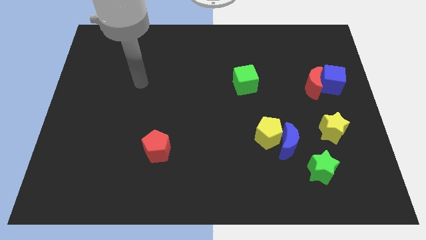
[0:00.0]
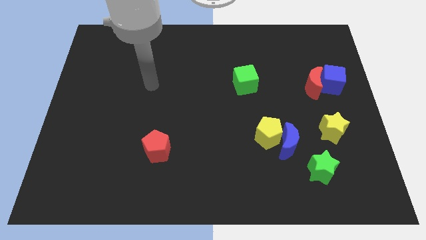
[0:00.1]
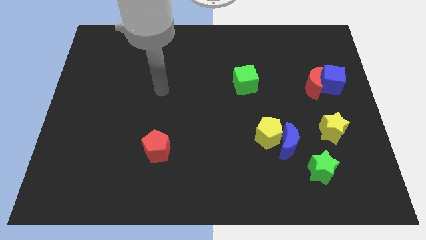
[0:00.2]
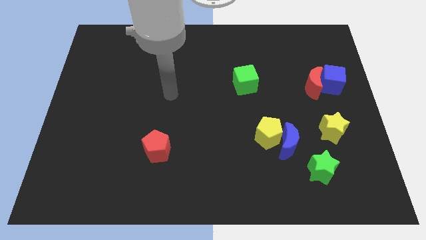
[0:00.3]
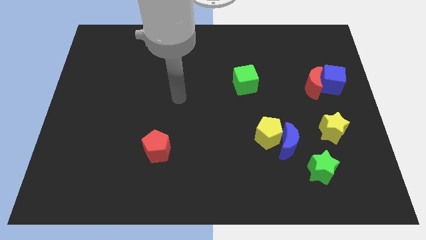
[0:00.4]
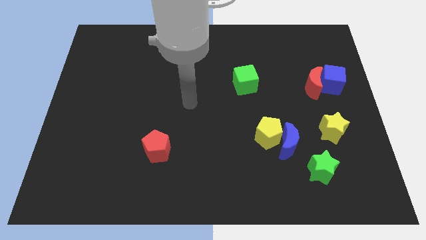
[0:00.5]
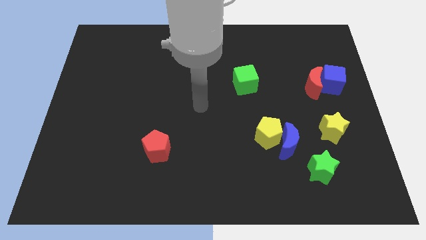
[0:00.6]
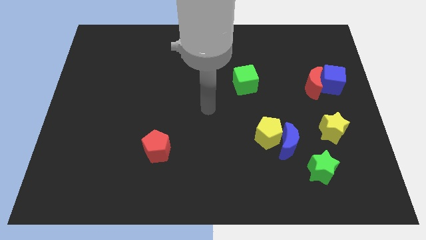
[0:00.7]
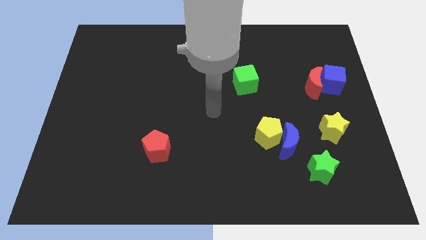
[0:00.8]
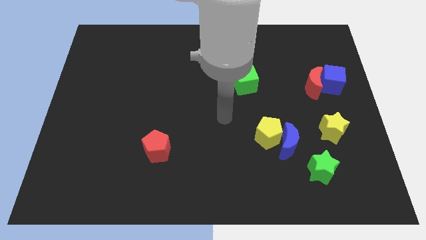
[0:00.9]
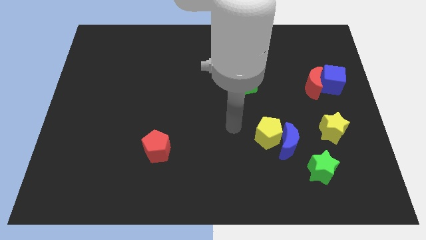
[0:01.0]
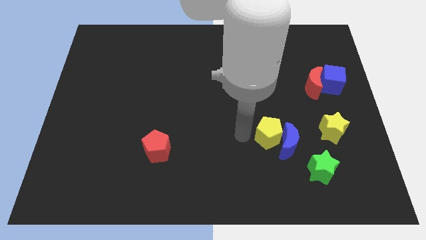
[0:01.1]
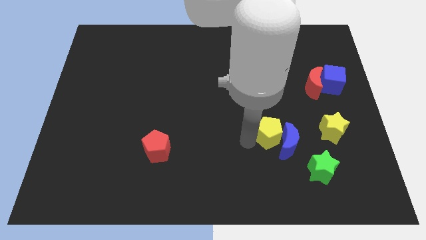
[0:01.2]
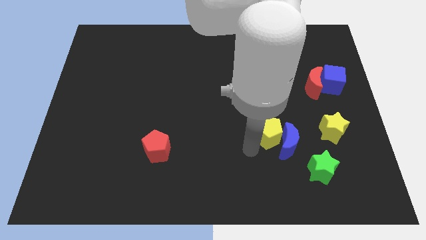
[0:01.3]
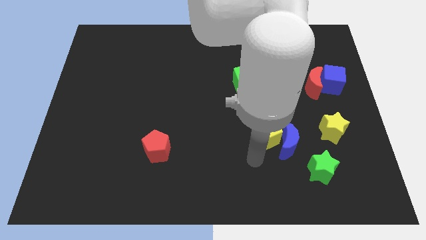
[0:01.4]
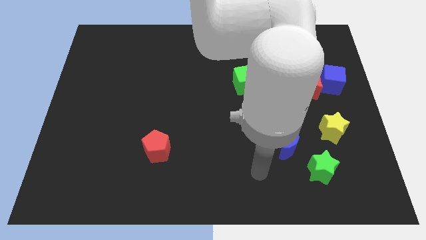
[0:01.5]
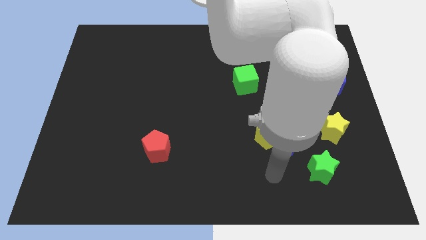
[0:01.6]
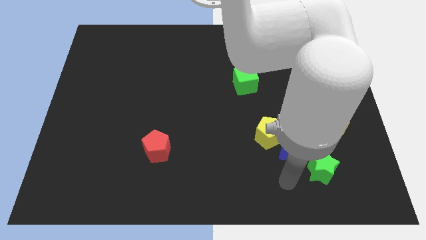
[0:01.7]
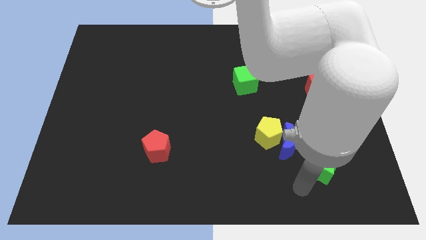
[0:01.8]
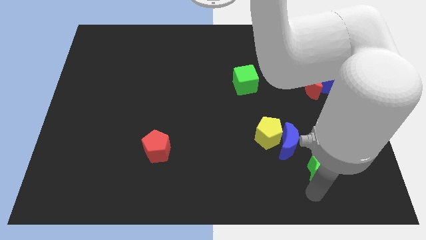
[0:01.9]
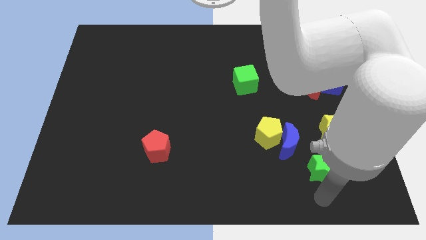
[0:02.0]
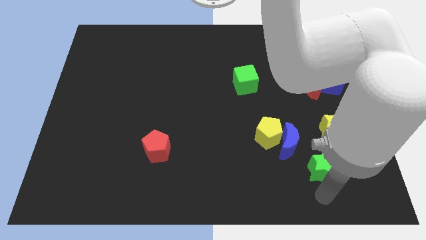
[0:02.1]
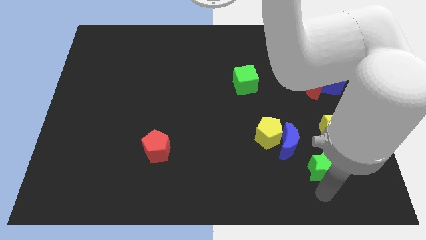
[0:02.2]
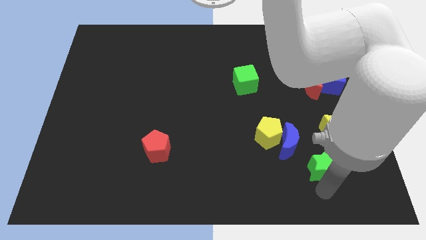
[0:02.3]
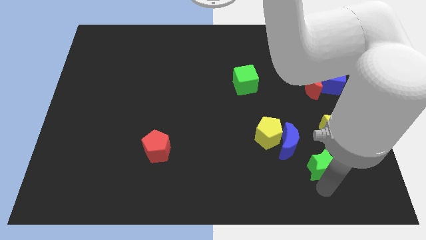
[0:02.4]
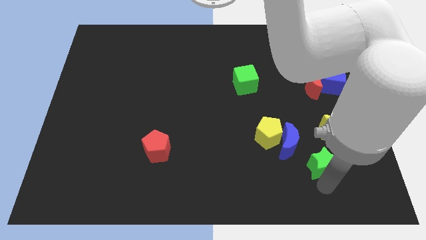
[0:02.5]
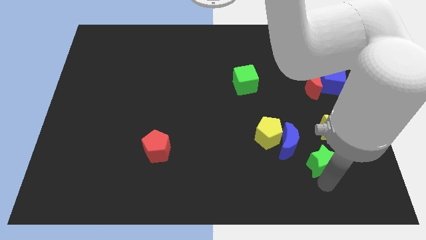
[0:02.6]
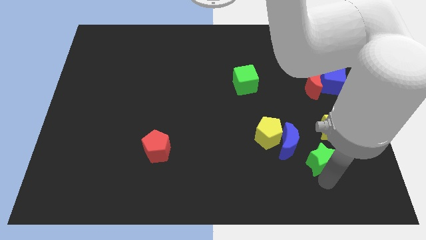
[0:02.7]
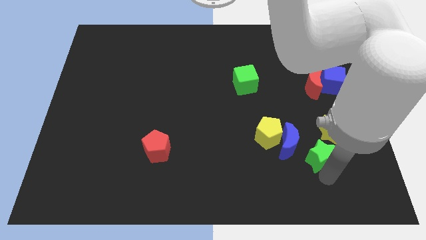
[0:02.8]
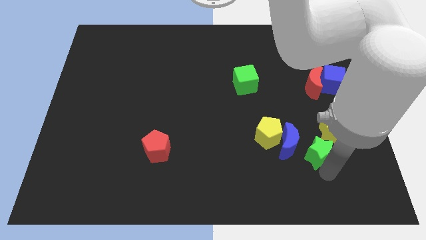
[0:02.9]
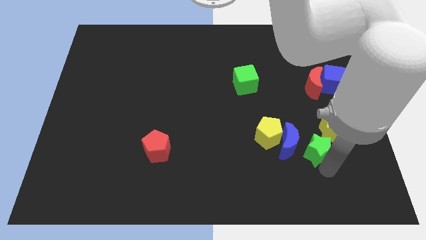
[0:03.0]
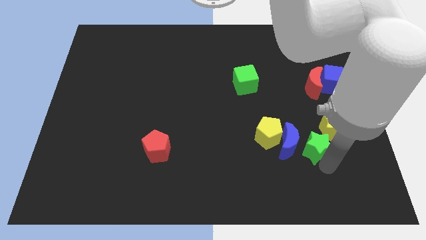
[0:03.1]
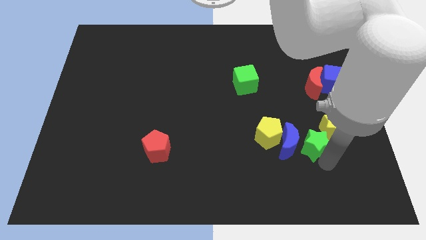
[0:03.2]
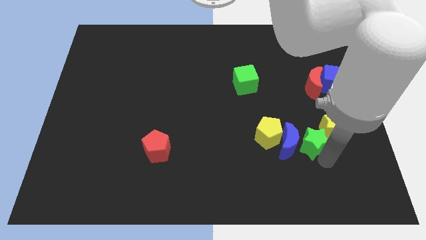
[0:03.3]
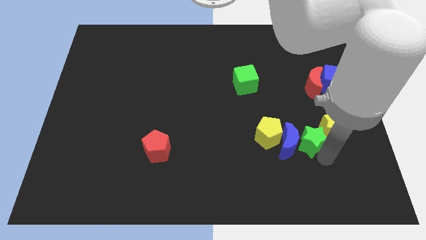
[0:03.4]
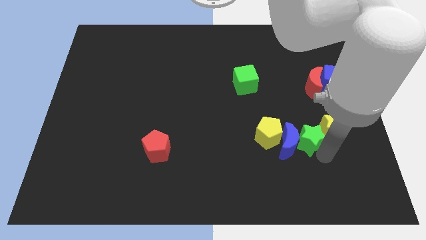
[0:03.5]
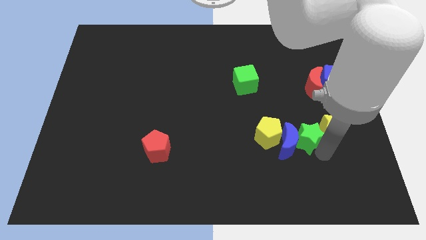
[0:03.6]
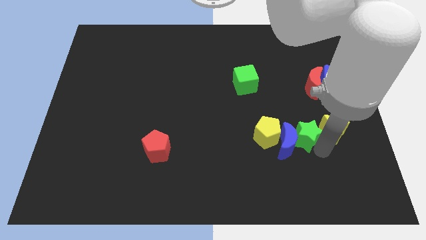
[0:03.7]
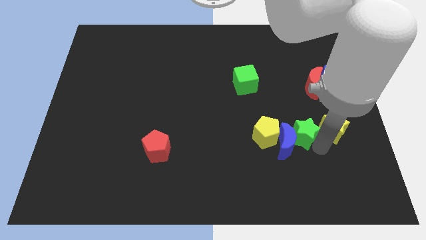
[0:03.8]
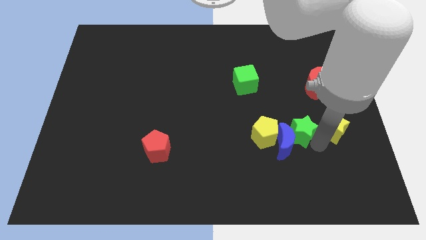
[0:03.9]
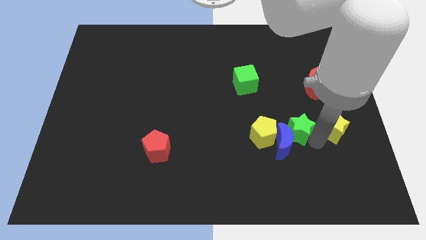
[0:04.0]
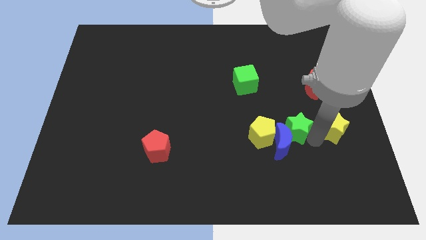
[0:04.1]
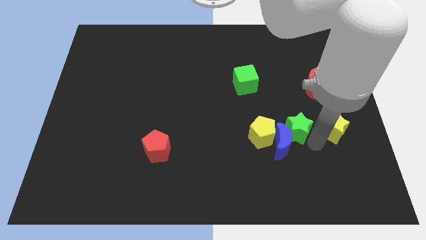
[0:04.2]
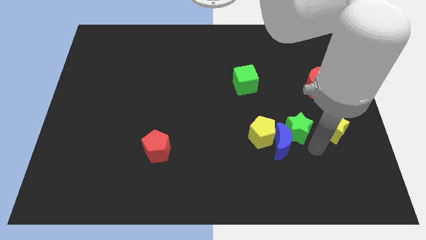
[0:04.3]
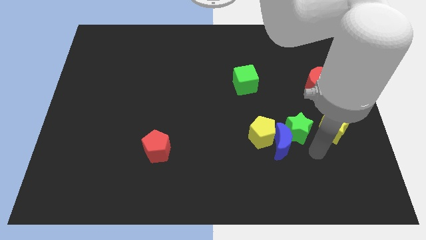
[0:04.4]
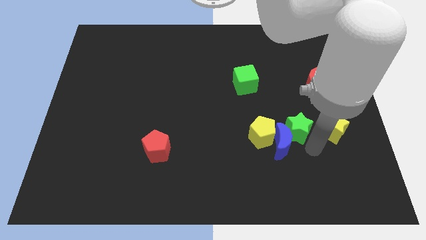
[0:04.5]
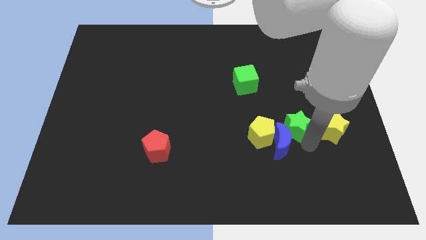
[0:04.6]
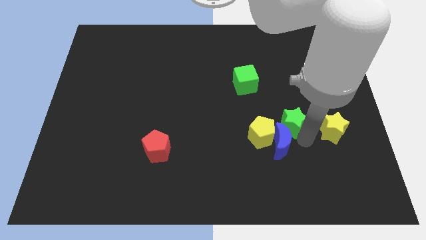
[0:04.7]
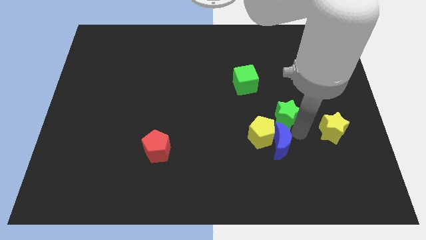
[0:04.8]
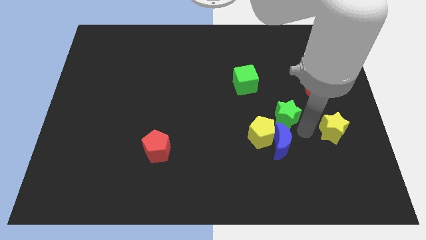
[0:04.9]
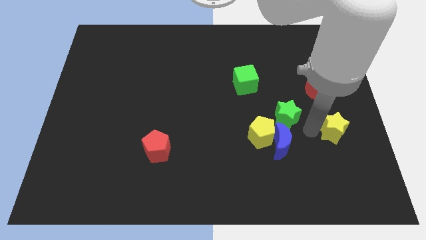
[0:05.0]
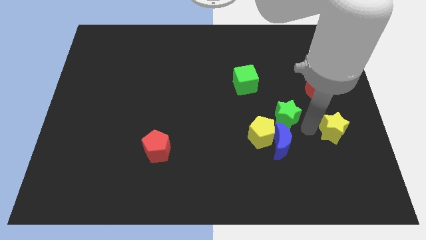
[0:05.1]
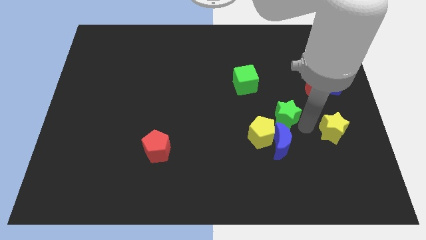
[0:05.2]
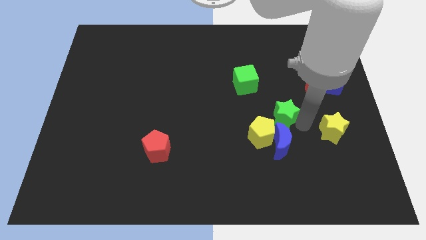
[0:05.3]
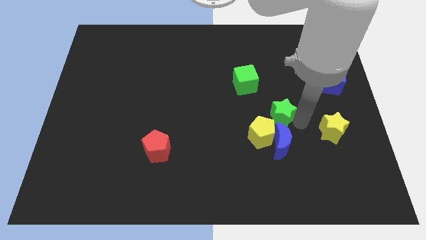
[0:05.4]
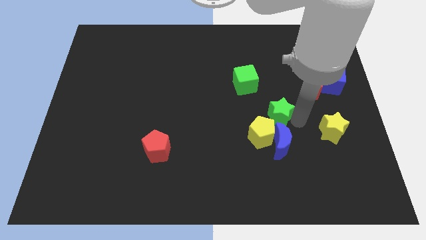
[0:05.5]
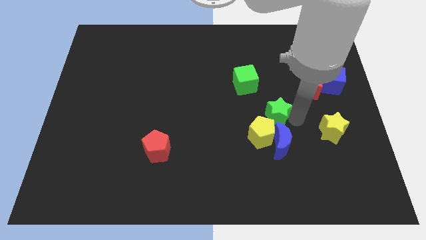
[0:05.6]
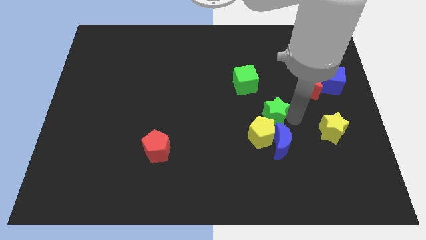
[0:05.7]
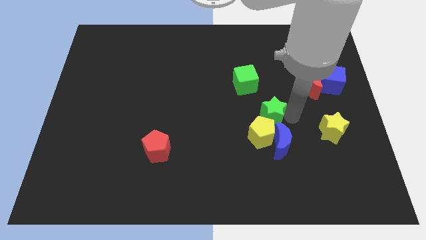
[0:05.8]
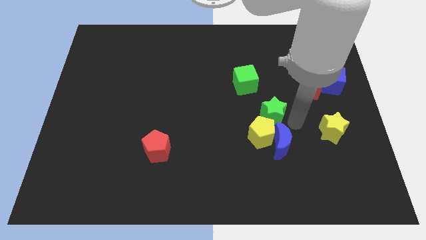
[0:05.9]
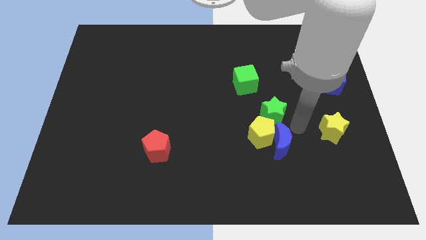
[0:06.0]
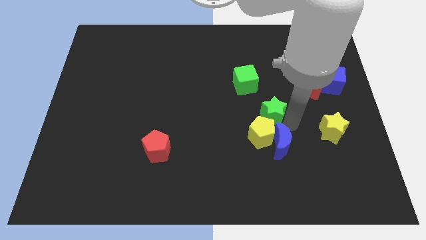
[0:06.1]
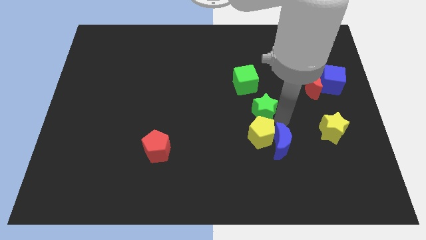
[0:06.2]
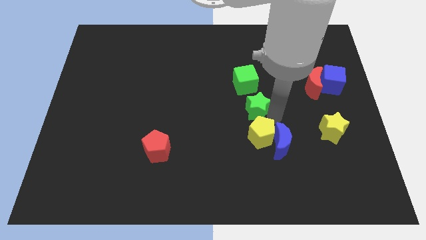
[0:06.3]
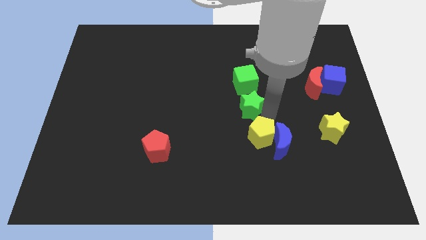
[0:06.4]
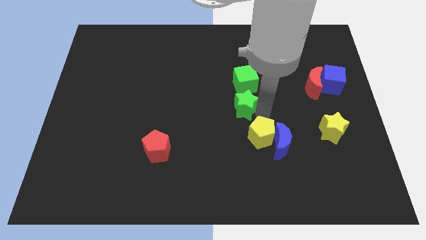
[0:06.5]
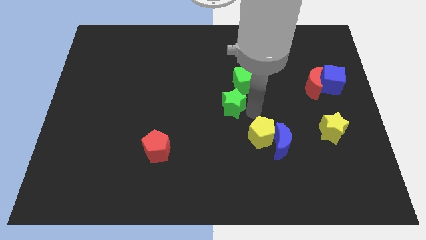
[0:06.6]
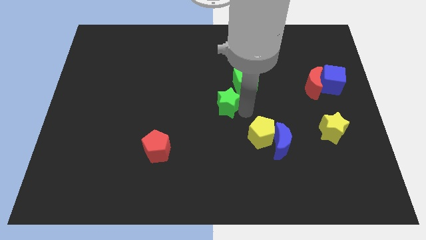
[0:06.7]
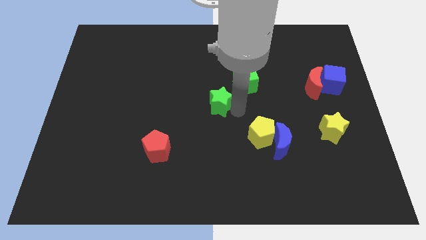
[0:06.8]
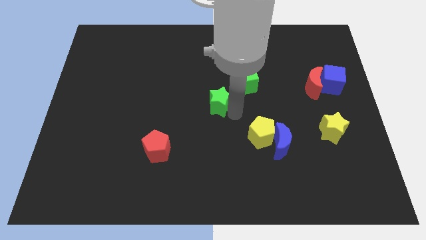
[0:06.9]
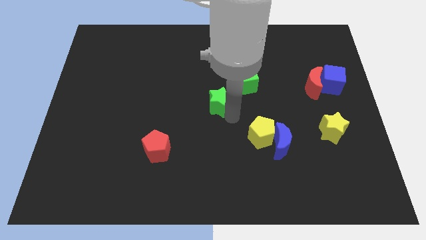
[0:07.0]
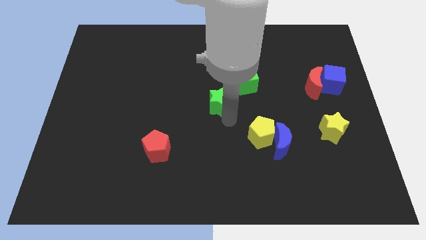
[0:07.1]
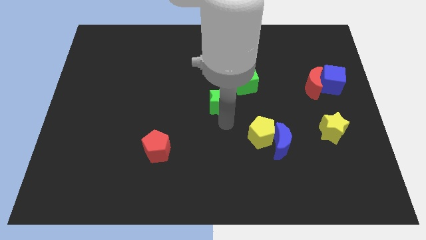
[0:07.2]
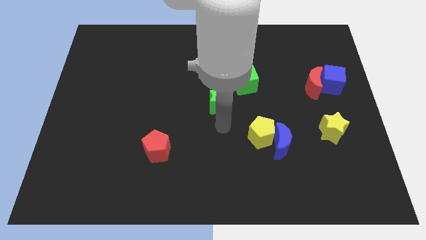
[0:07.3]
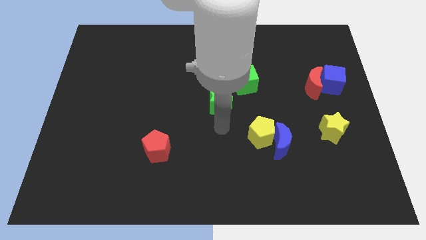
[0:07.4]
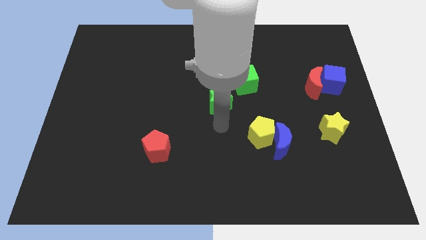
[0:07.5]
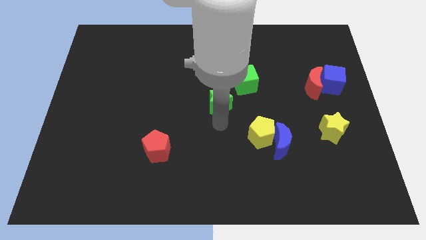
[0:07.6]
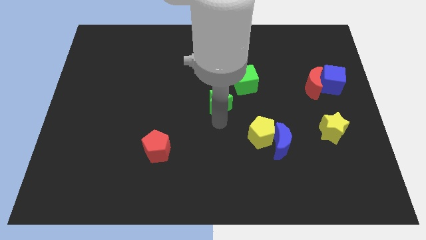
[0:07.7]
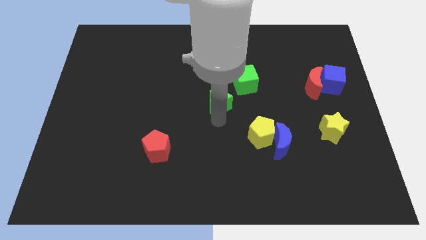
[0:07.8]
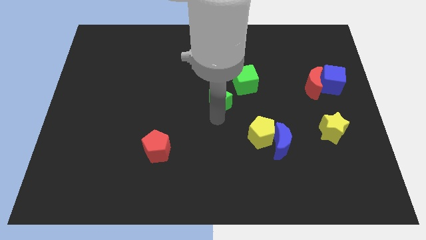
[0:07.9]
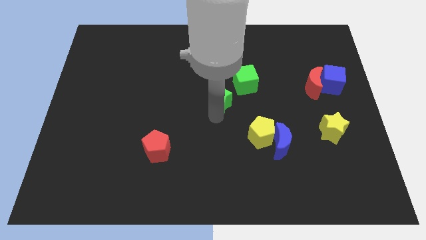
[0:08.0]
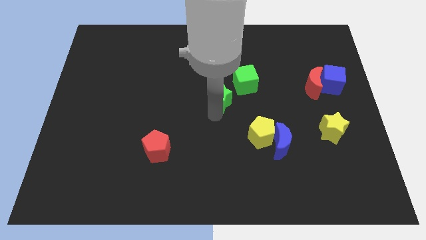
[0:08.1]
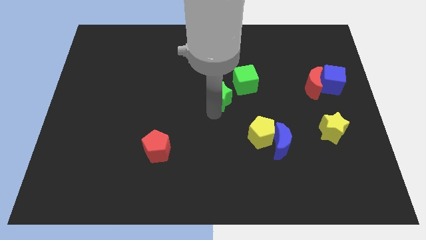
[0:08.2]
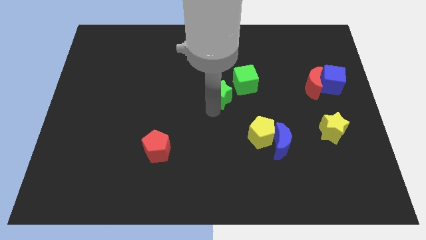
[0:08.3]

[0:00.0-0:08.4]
slide the green star left of the green cube
